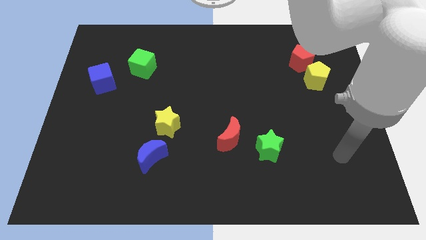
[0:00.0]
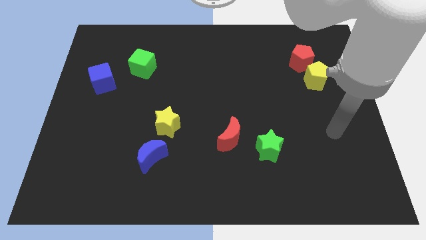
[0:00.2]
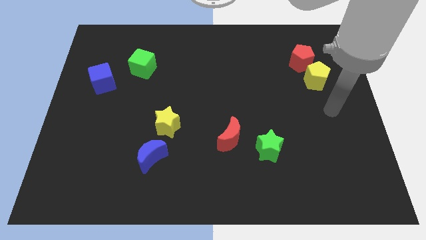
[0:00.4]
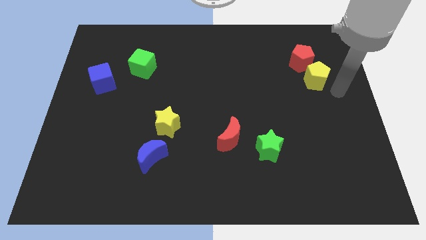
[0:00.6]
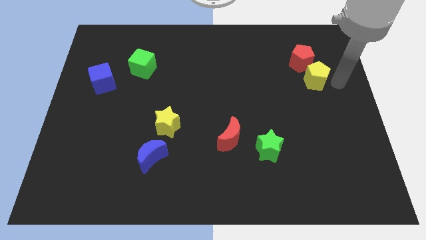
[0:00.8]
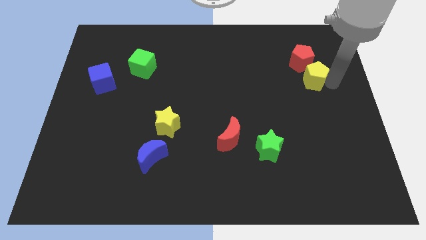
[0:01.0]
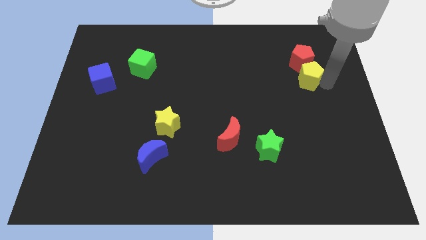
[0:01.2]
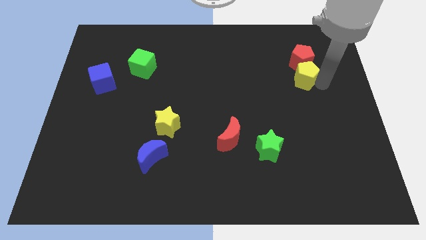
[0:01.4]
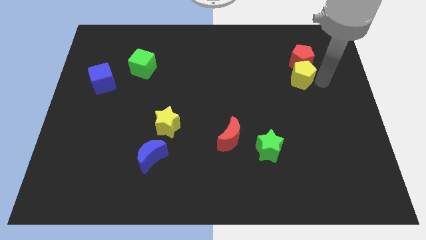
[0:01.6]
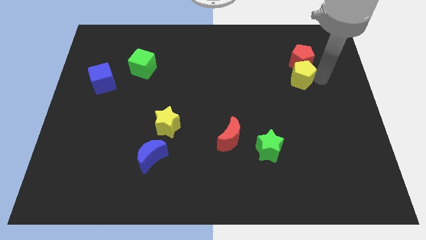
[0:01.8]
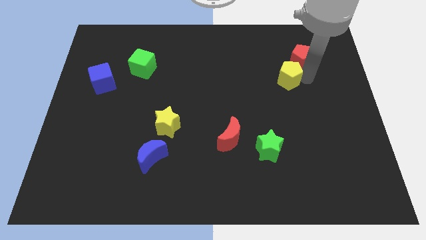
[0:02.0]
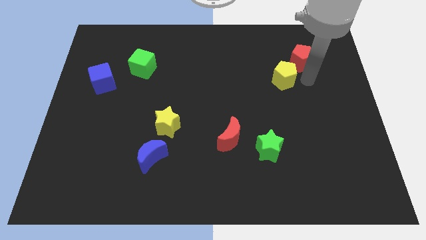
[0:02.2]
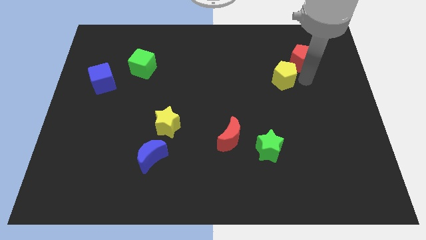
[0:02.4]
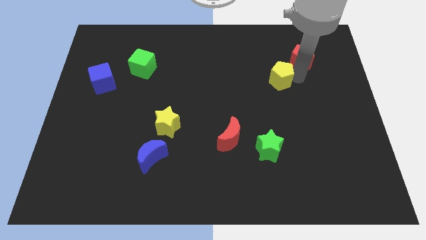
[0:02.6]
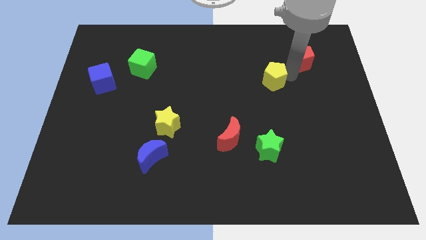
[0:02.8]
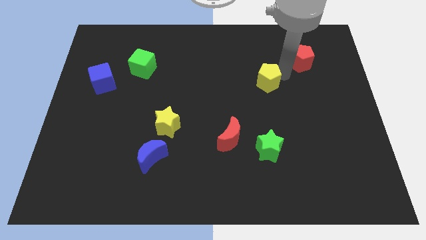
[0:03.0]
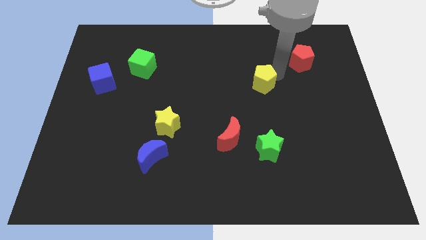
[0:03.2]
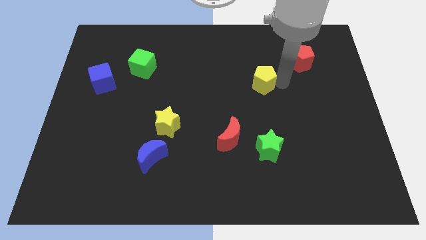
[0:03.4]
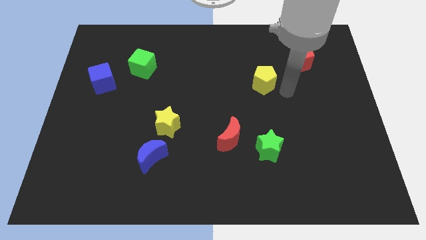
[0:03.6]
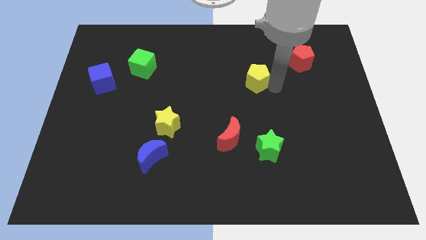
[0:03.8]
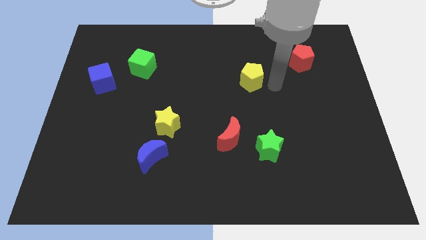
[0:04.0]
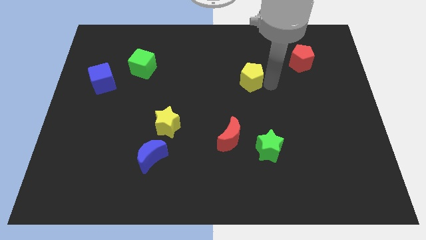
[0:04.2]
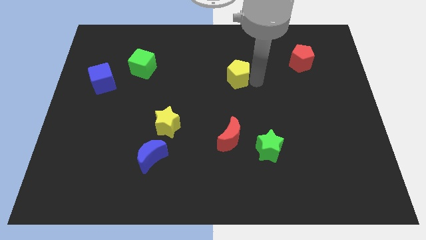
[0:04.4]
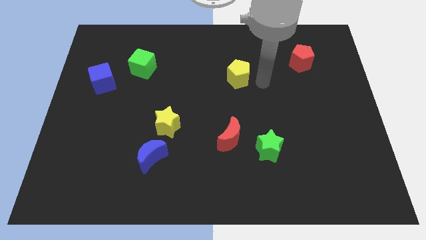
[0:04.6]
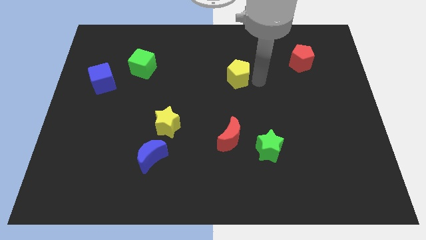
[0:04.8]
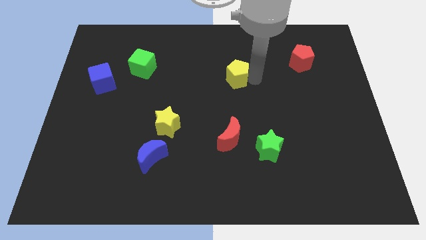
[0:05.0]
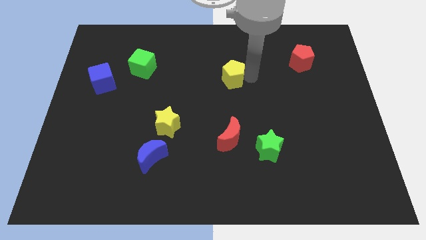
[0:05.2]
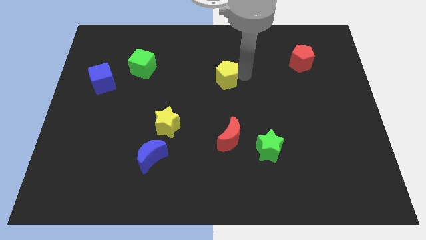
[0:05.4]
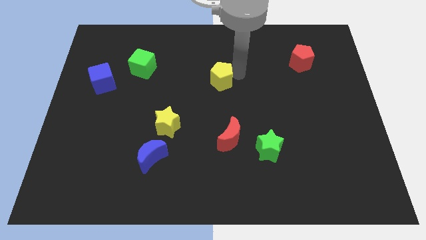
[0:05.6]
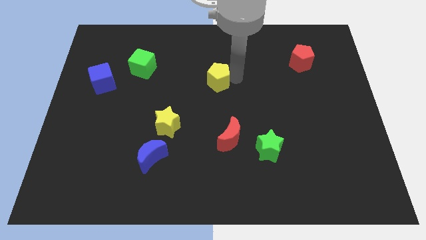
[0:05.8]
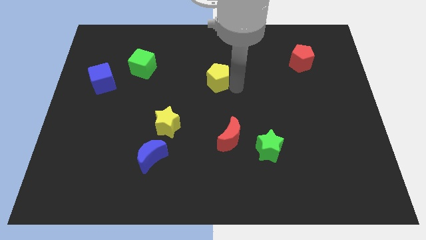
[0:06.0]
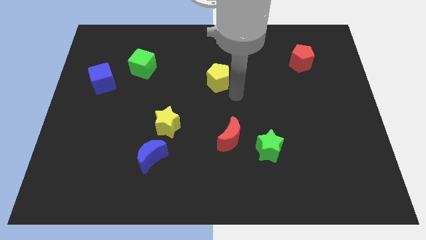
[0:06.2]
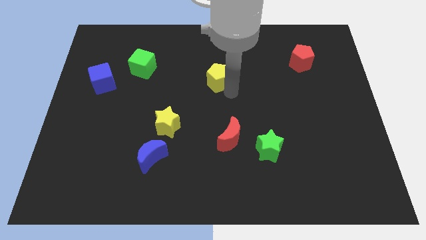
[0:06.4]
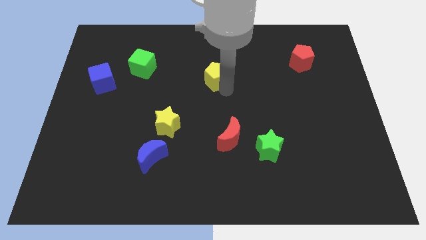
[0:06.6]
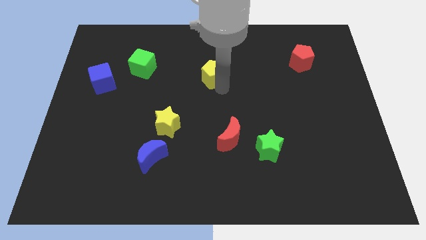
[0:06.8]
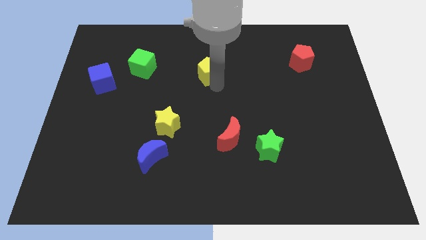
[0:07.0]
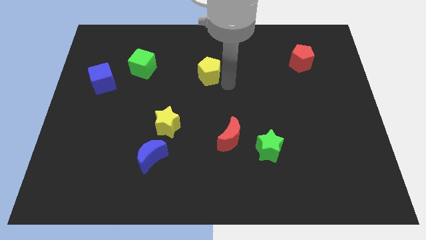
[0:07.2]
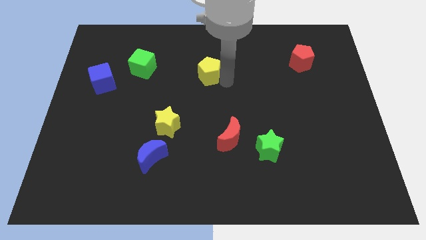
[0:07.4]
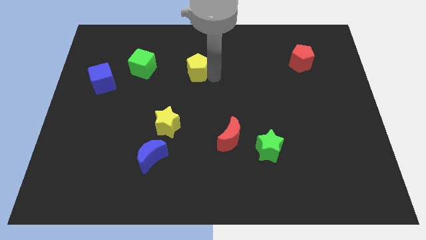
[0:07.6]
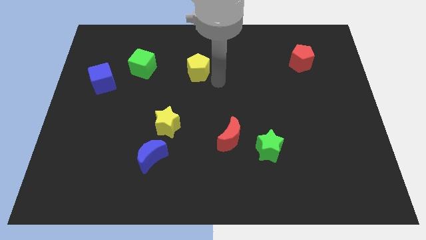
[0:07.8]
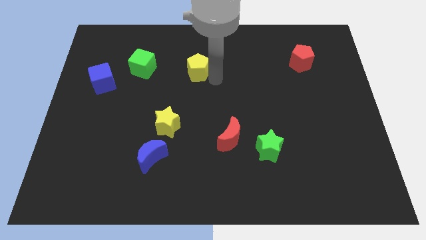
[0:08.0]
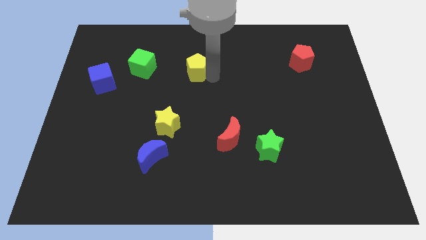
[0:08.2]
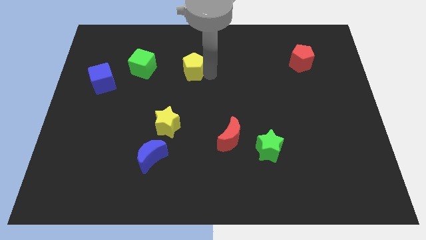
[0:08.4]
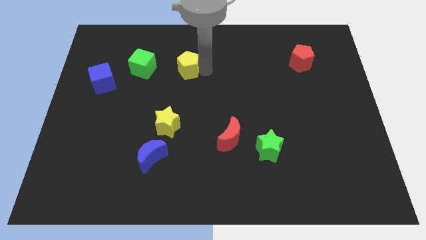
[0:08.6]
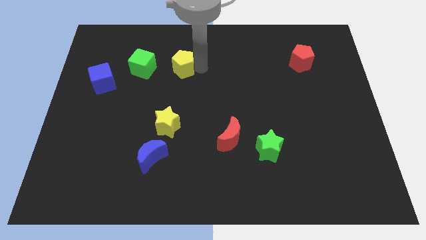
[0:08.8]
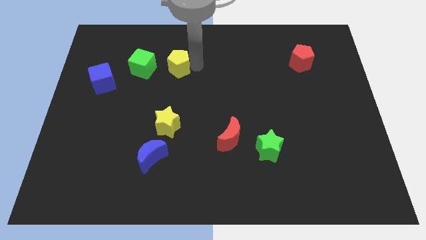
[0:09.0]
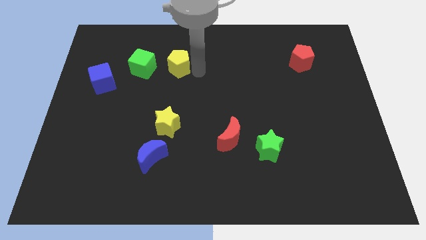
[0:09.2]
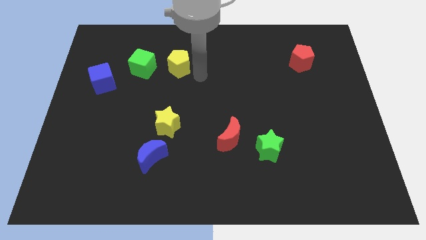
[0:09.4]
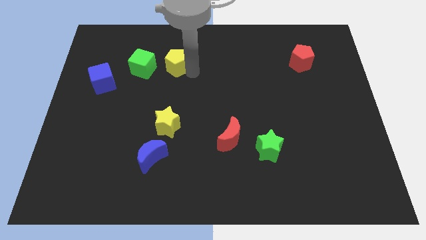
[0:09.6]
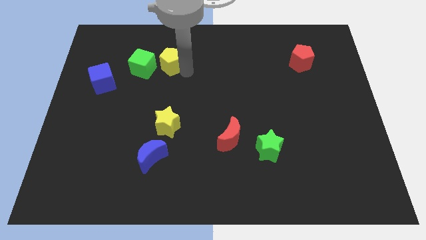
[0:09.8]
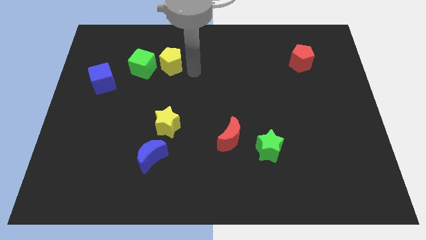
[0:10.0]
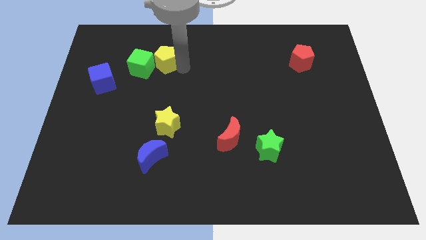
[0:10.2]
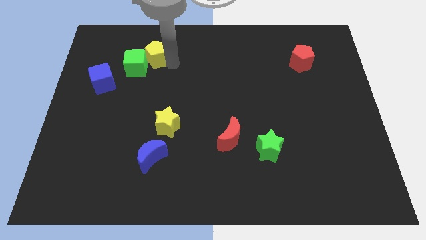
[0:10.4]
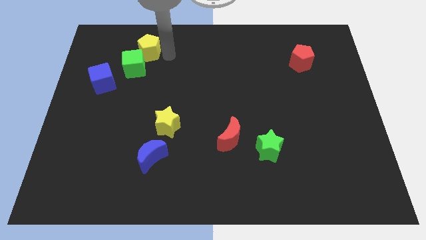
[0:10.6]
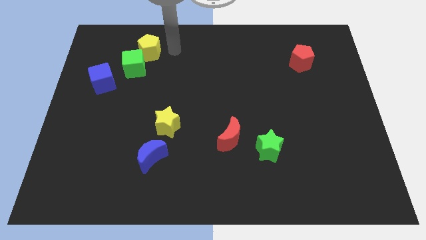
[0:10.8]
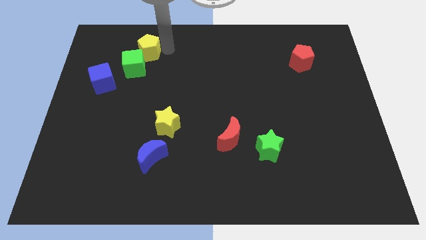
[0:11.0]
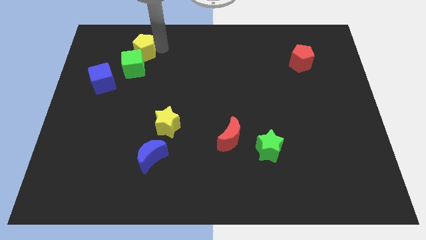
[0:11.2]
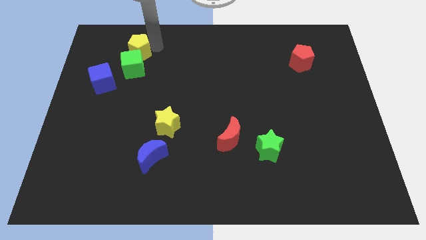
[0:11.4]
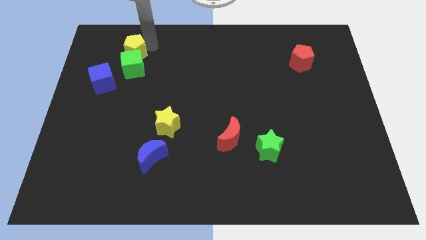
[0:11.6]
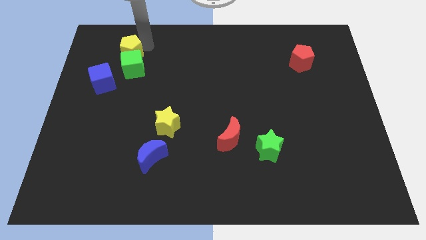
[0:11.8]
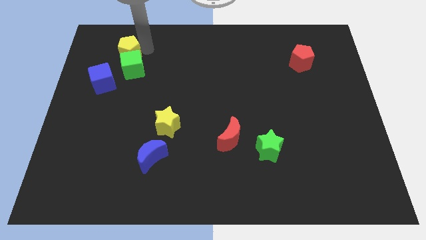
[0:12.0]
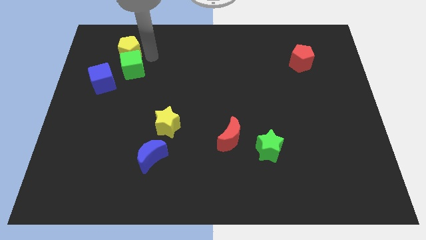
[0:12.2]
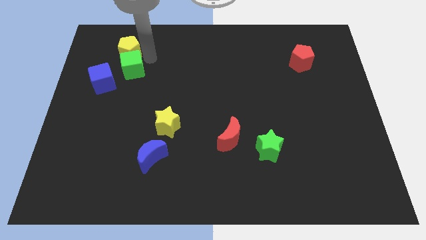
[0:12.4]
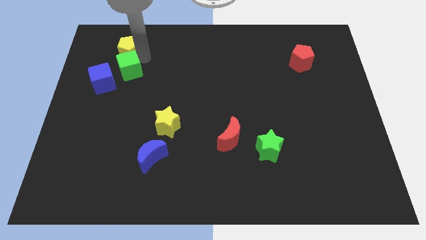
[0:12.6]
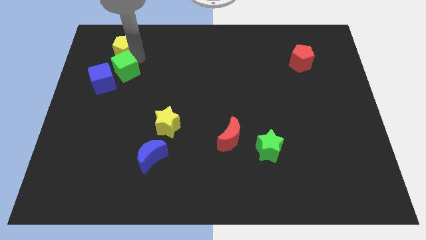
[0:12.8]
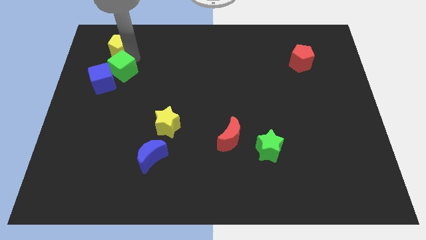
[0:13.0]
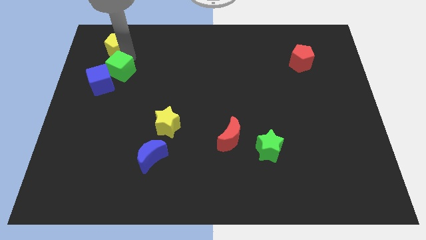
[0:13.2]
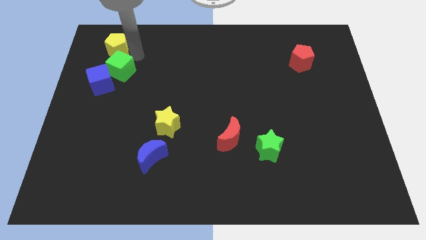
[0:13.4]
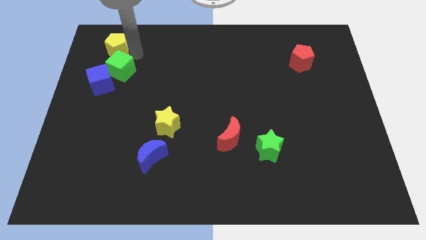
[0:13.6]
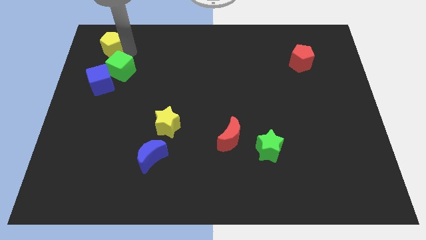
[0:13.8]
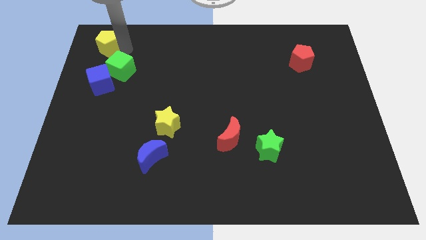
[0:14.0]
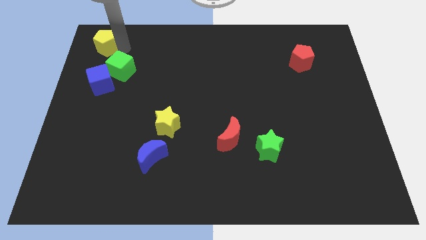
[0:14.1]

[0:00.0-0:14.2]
push the yellow pentagon to the top left corner

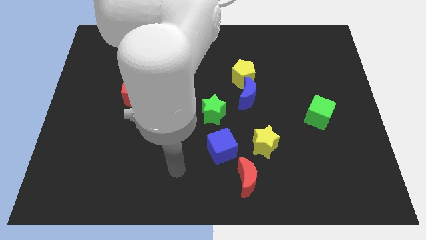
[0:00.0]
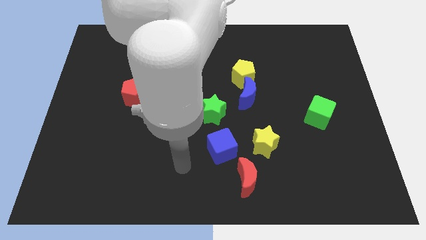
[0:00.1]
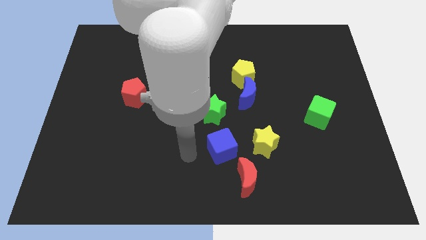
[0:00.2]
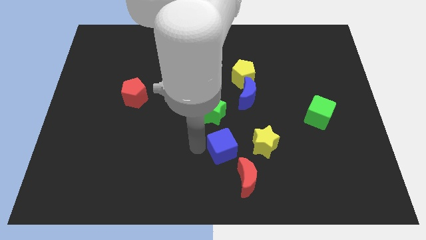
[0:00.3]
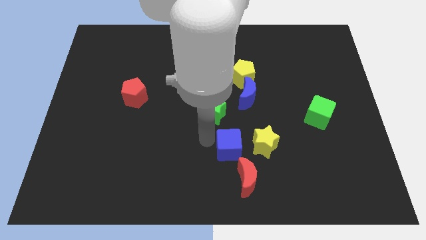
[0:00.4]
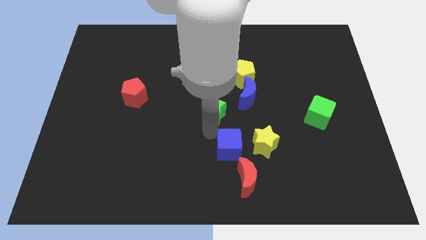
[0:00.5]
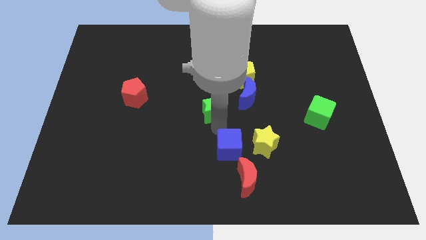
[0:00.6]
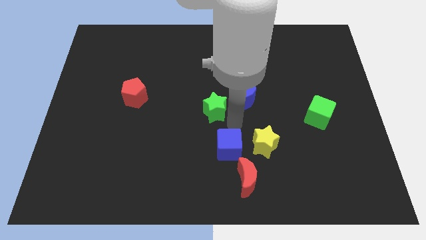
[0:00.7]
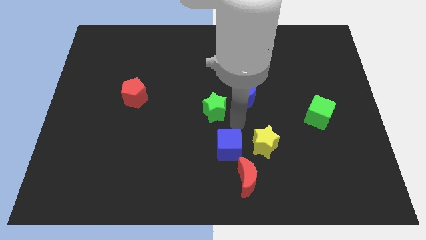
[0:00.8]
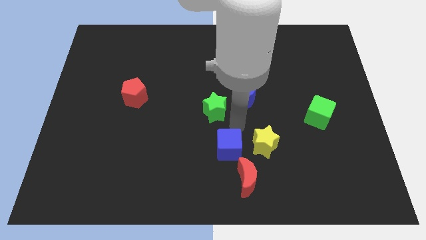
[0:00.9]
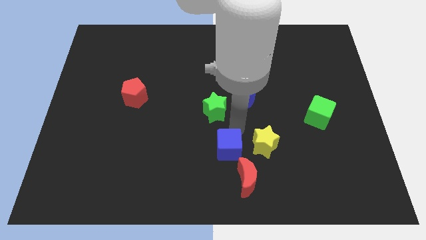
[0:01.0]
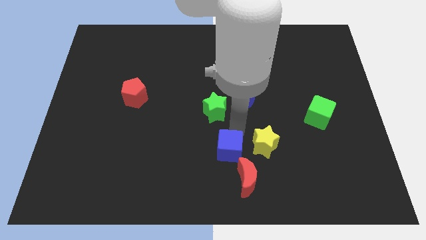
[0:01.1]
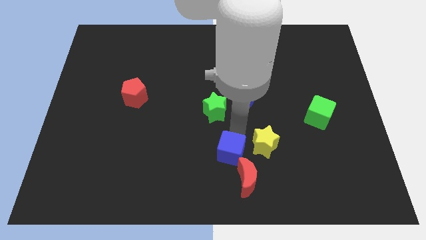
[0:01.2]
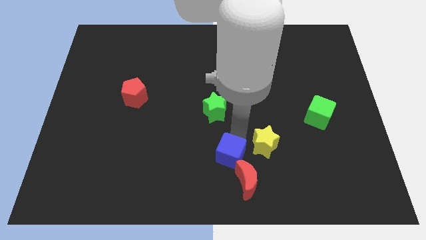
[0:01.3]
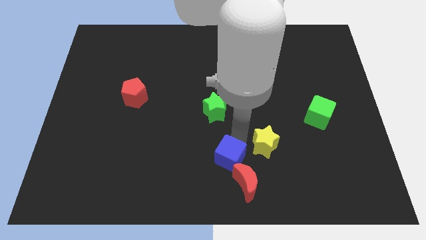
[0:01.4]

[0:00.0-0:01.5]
put the blue cube to the bottom side
